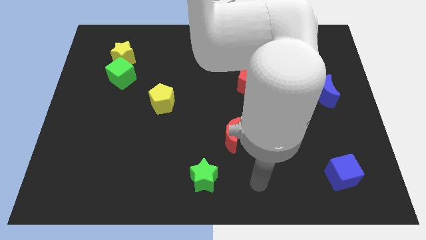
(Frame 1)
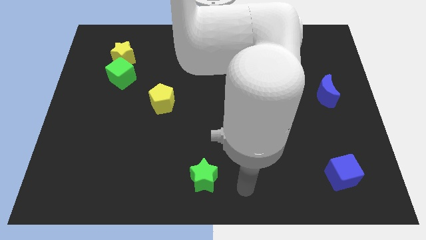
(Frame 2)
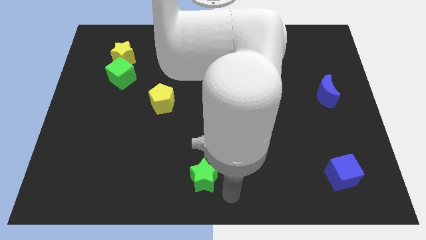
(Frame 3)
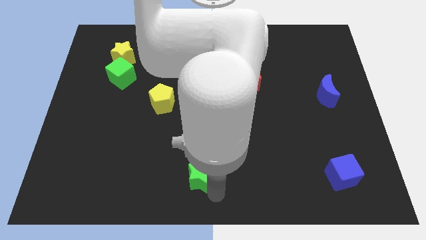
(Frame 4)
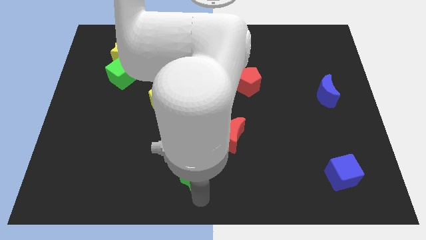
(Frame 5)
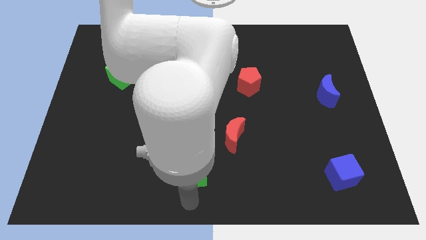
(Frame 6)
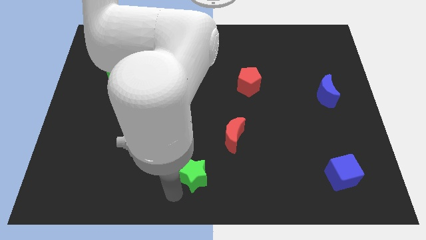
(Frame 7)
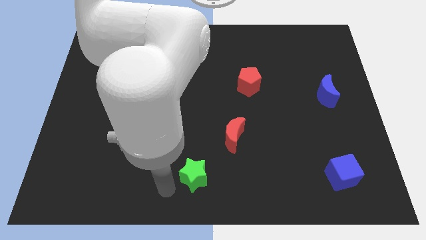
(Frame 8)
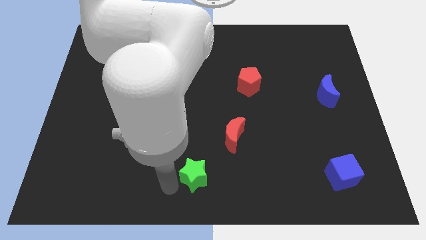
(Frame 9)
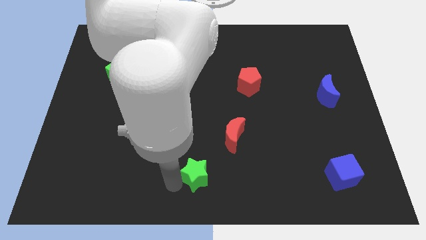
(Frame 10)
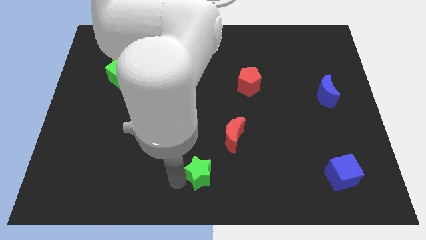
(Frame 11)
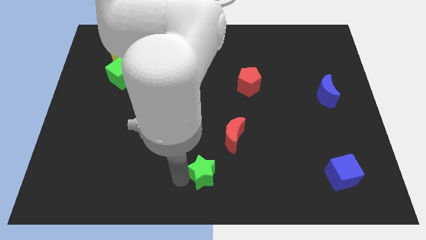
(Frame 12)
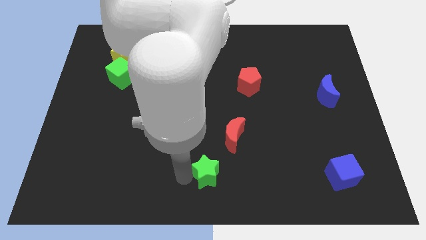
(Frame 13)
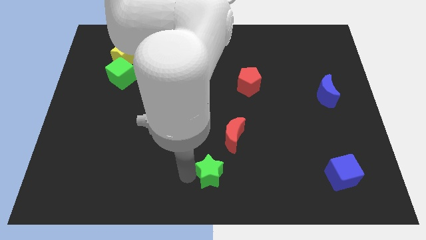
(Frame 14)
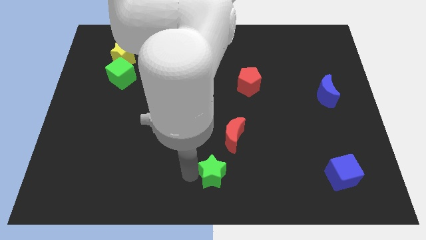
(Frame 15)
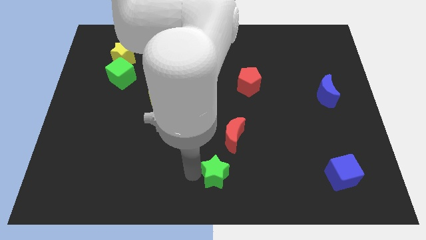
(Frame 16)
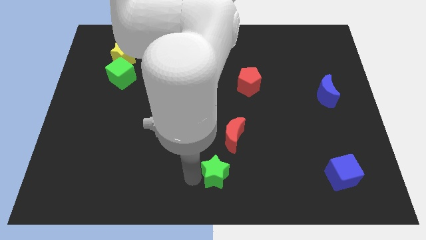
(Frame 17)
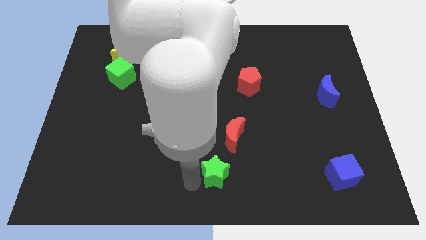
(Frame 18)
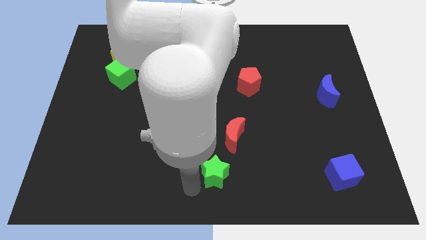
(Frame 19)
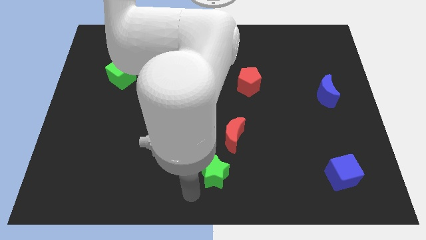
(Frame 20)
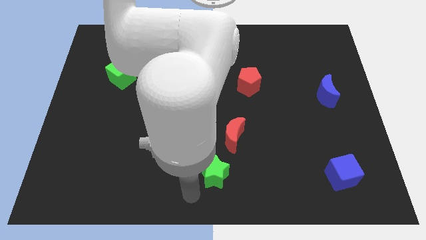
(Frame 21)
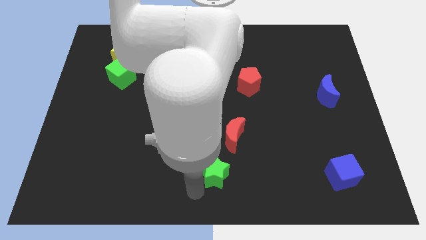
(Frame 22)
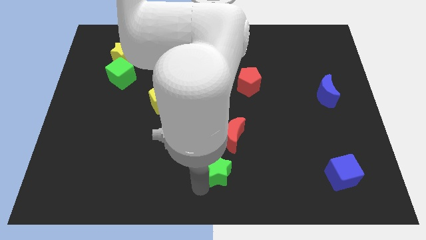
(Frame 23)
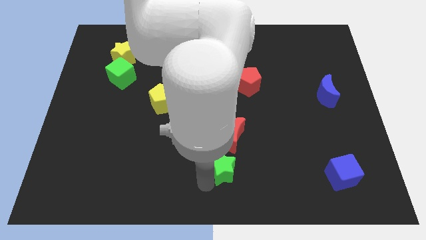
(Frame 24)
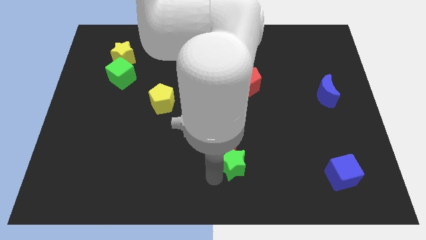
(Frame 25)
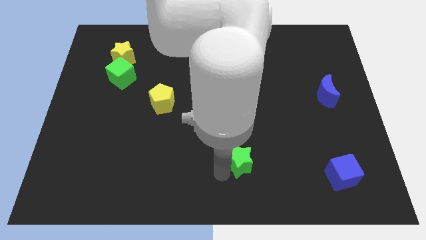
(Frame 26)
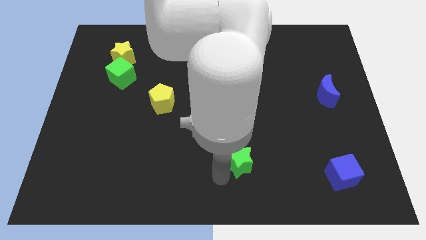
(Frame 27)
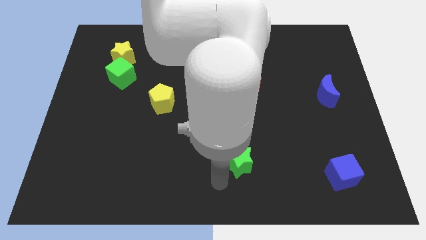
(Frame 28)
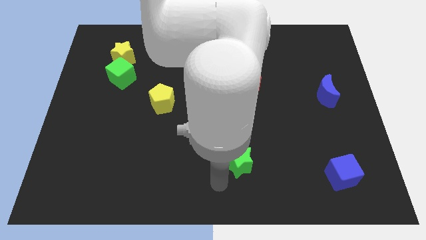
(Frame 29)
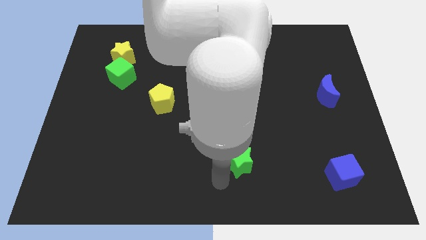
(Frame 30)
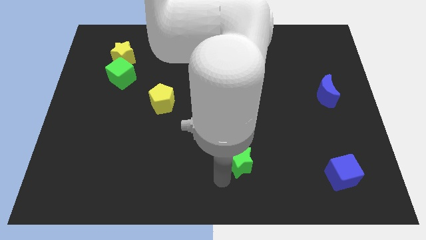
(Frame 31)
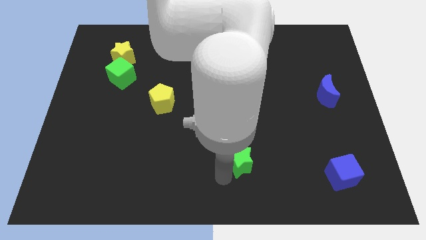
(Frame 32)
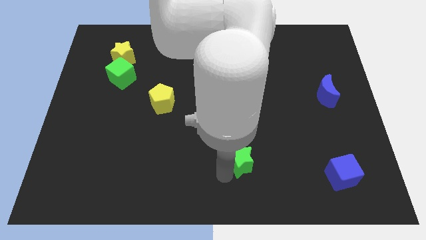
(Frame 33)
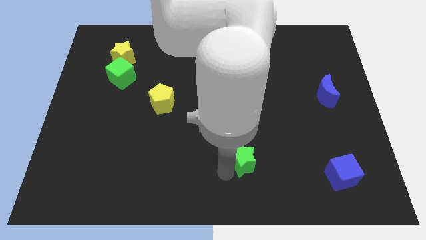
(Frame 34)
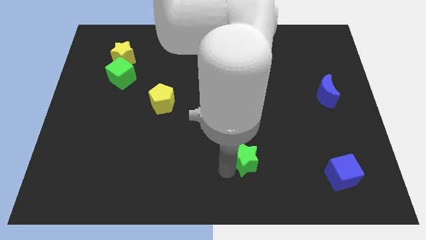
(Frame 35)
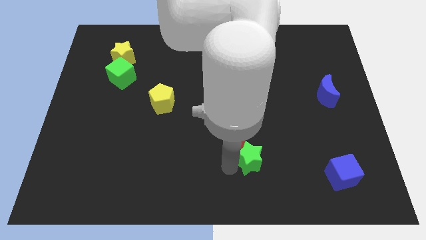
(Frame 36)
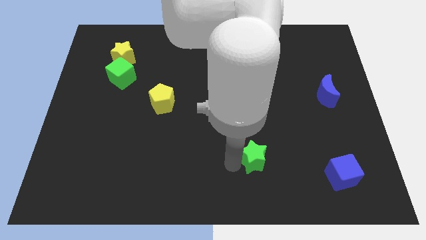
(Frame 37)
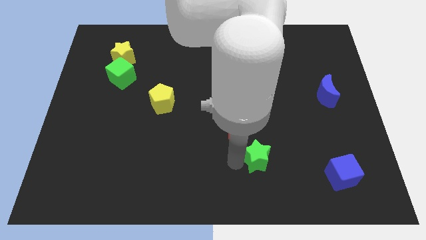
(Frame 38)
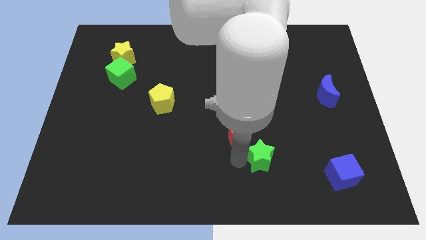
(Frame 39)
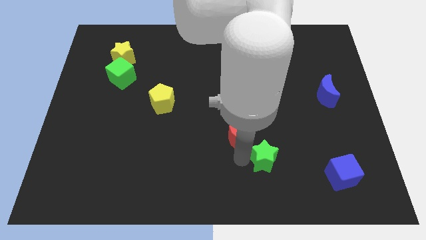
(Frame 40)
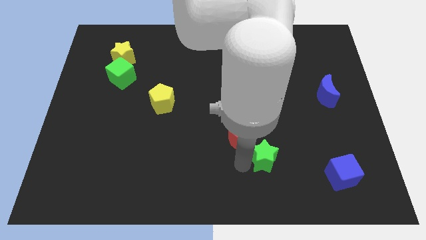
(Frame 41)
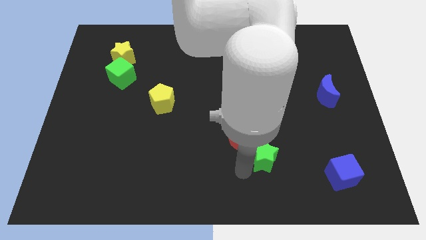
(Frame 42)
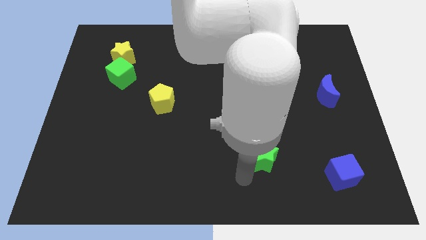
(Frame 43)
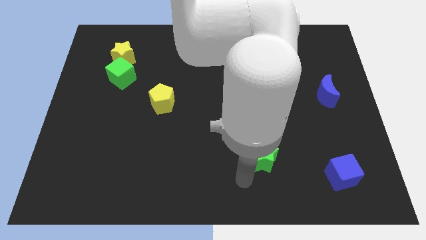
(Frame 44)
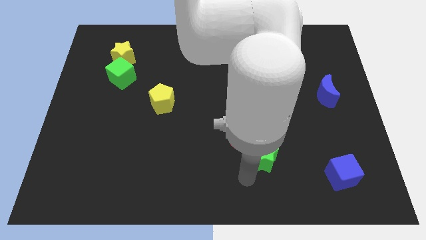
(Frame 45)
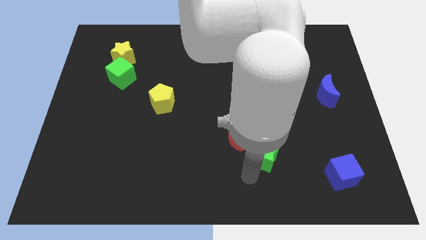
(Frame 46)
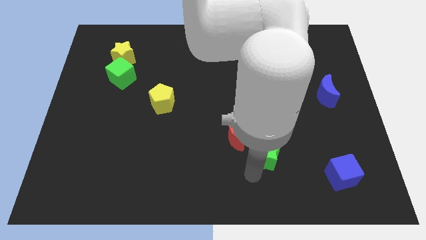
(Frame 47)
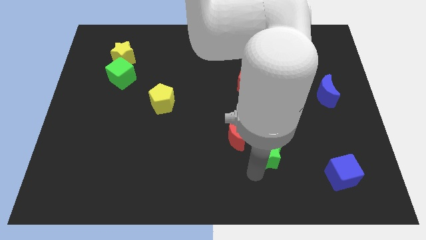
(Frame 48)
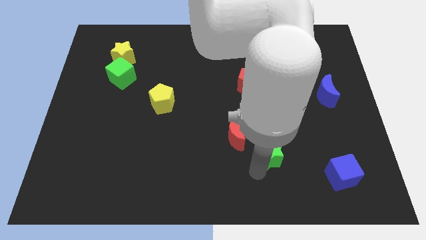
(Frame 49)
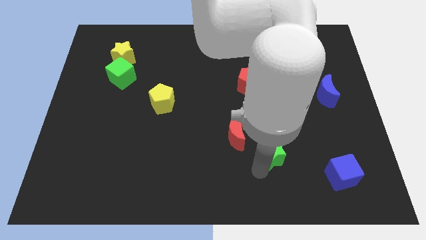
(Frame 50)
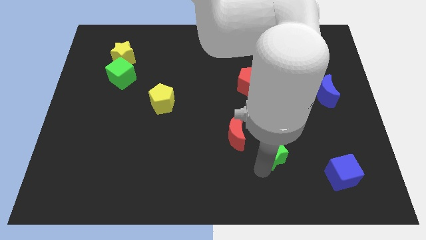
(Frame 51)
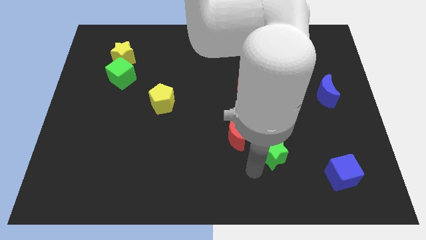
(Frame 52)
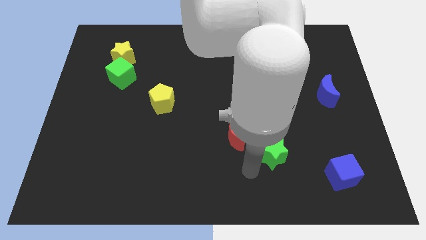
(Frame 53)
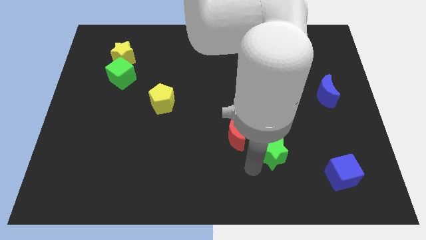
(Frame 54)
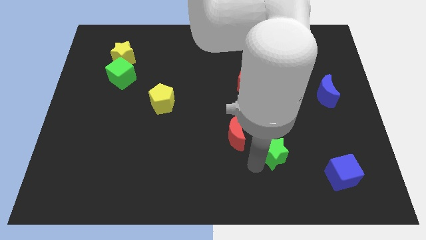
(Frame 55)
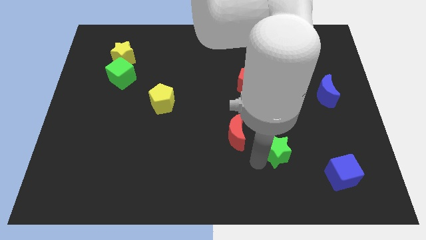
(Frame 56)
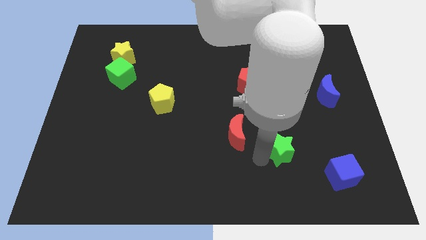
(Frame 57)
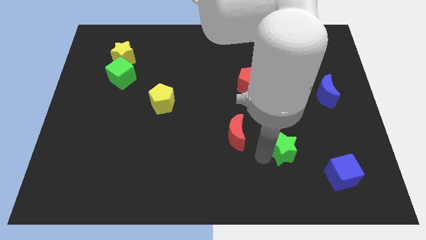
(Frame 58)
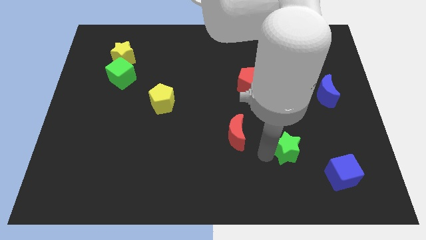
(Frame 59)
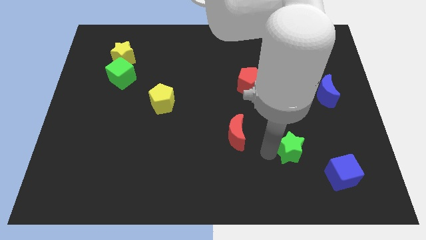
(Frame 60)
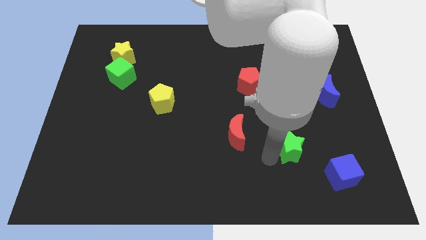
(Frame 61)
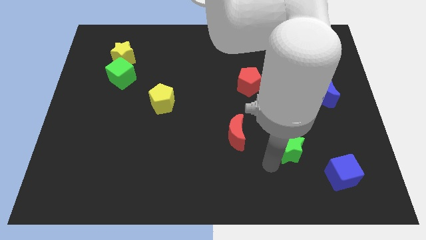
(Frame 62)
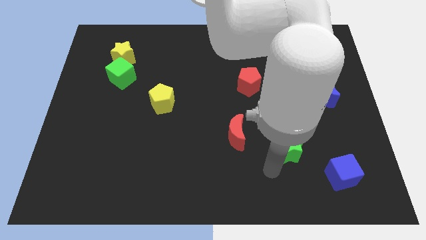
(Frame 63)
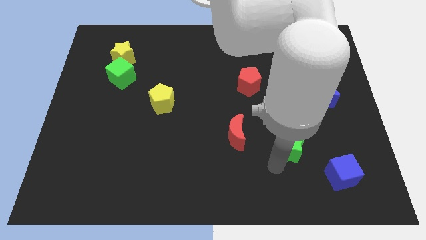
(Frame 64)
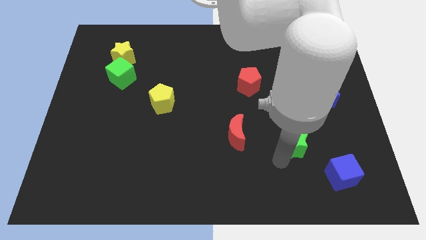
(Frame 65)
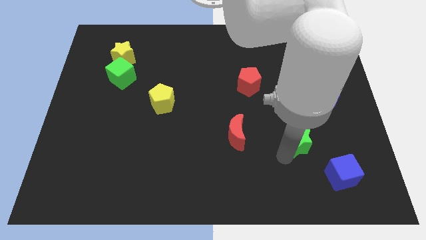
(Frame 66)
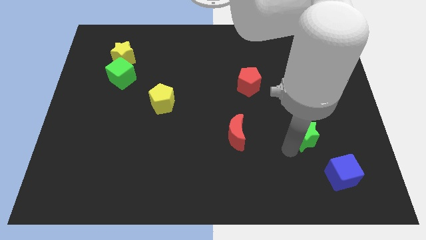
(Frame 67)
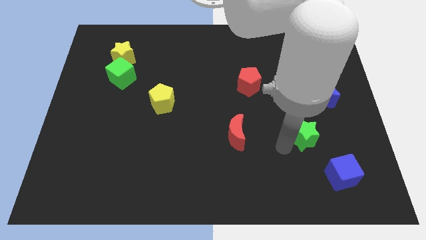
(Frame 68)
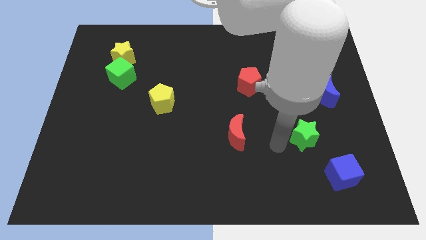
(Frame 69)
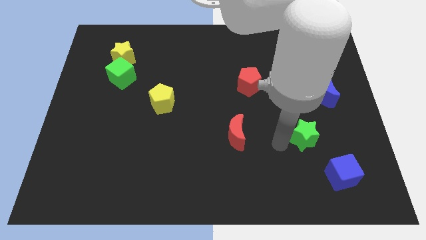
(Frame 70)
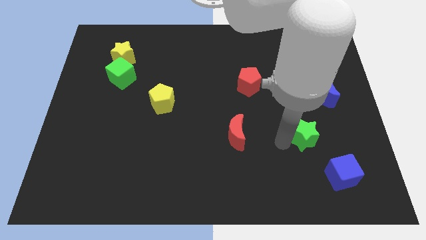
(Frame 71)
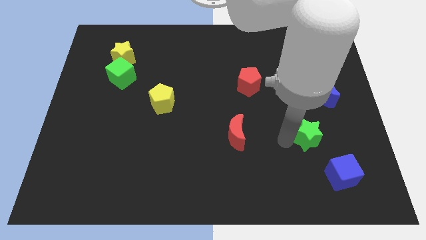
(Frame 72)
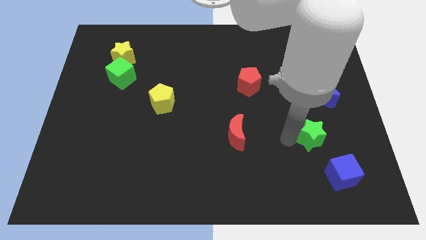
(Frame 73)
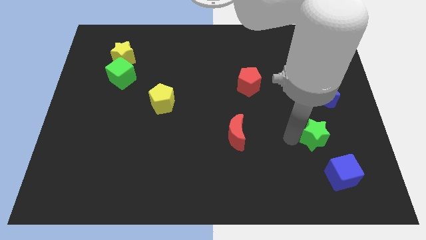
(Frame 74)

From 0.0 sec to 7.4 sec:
push the green star below the blue moon

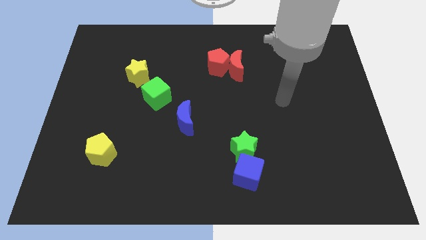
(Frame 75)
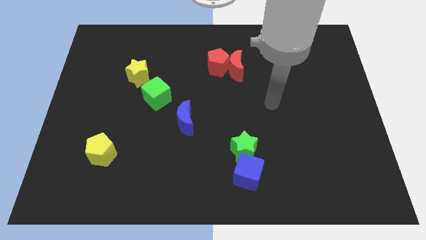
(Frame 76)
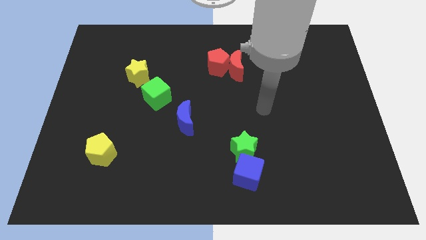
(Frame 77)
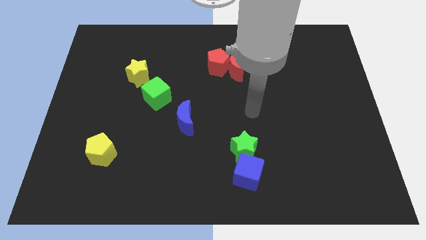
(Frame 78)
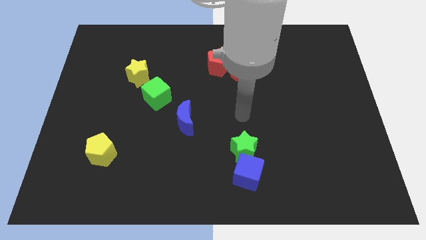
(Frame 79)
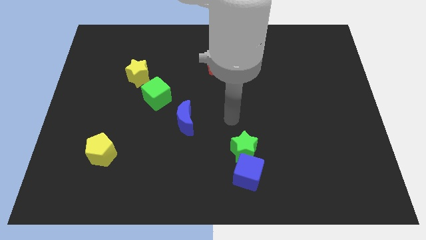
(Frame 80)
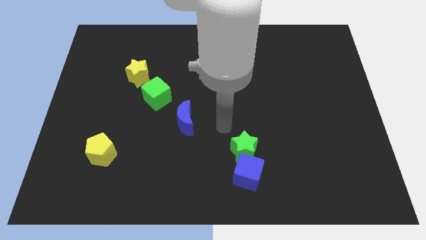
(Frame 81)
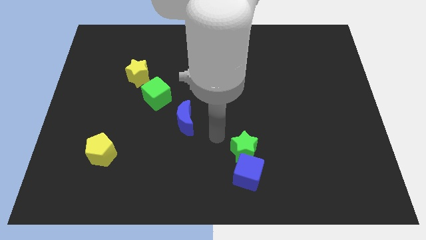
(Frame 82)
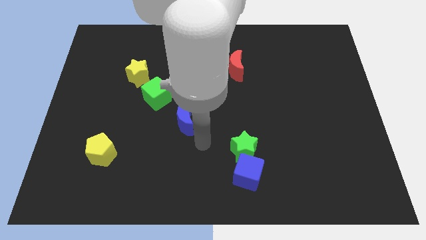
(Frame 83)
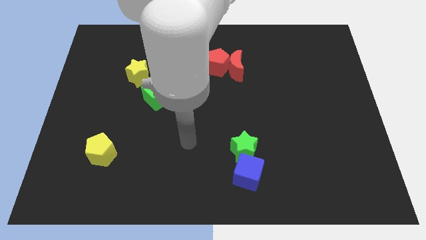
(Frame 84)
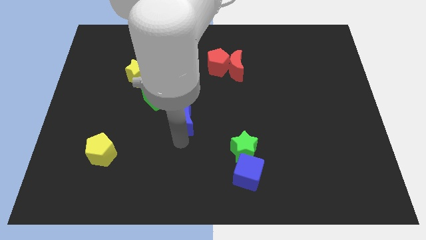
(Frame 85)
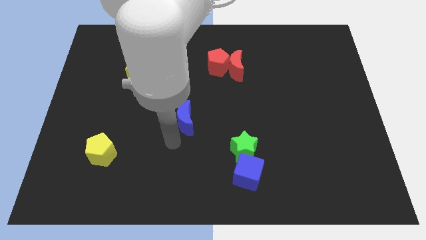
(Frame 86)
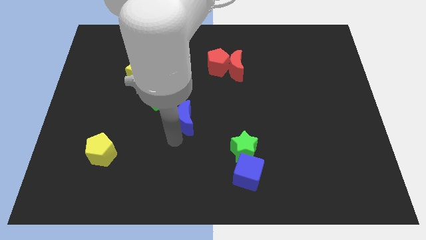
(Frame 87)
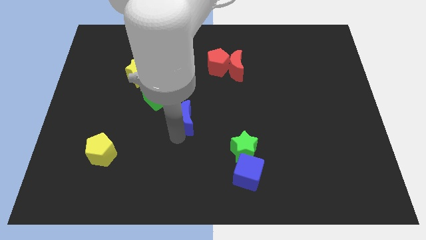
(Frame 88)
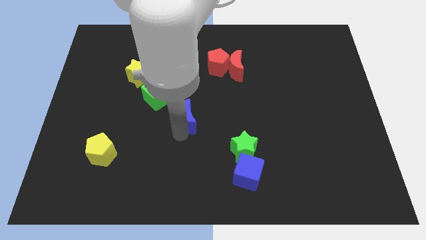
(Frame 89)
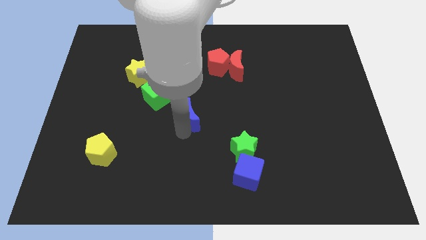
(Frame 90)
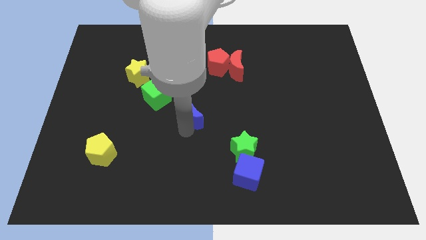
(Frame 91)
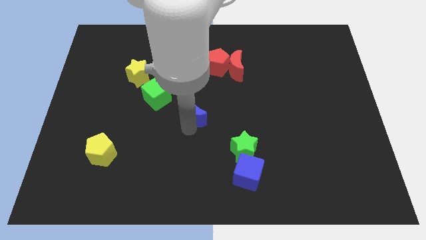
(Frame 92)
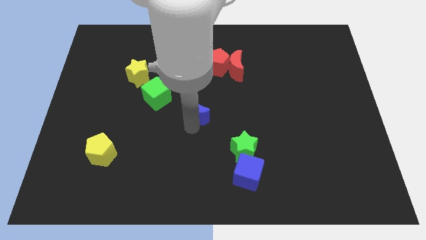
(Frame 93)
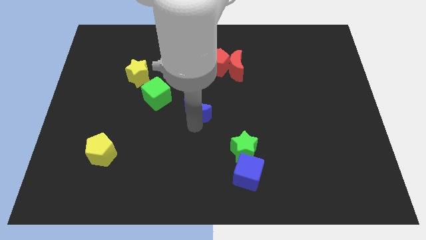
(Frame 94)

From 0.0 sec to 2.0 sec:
slide the blue moon just right of the green cube
